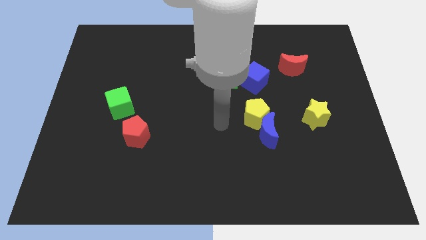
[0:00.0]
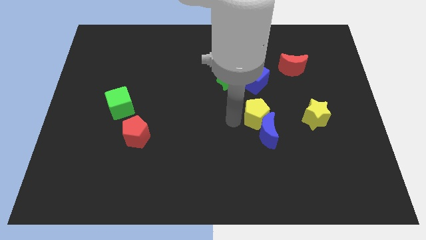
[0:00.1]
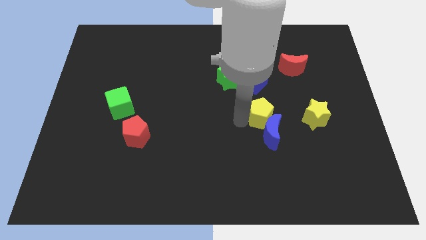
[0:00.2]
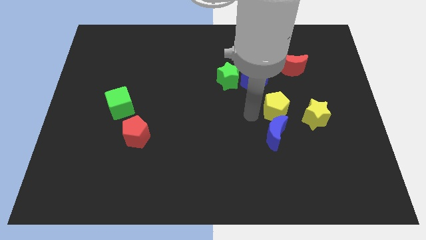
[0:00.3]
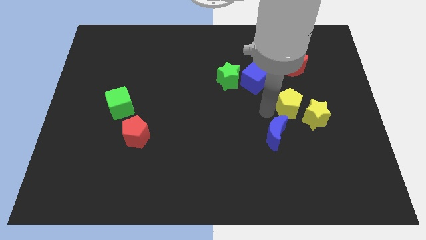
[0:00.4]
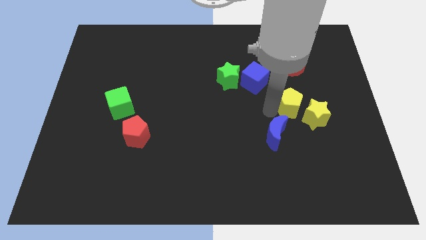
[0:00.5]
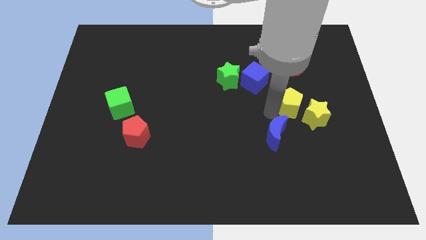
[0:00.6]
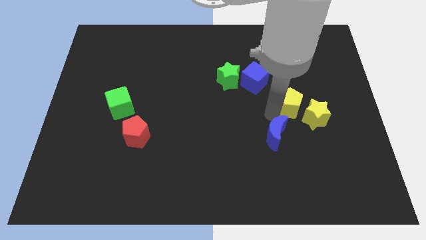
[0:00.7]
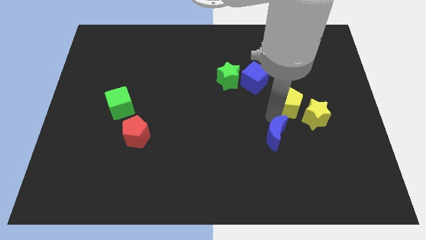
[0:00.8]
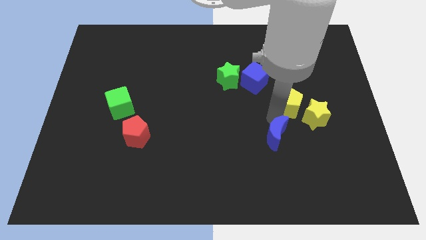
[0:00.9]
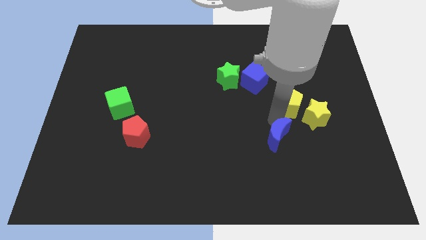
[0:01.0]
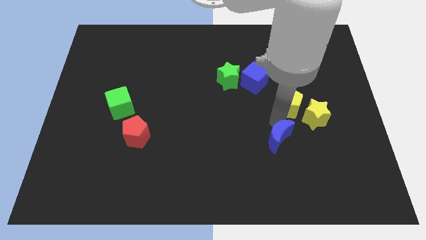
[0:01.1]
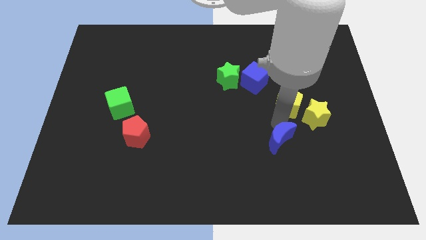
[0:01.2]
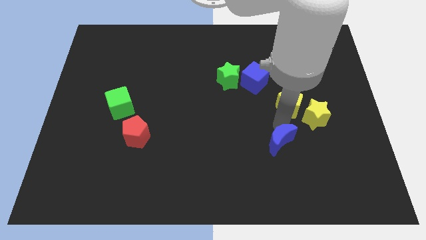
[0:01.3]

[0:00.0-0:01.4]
move the blue moon away from the yellow pentagon

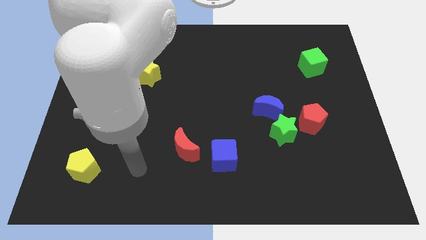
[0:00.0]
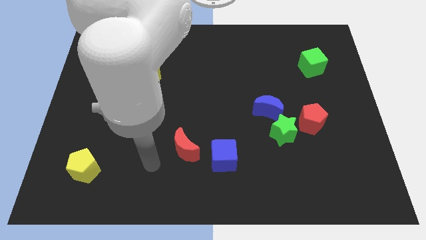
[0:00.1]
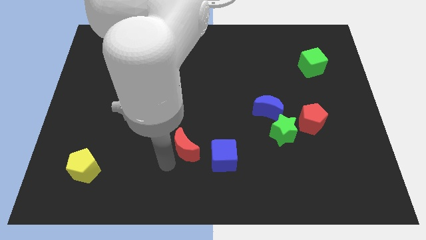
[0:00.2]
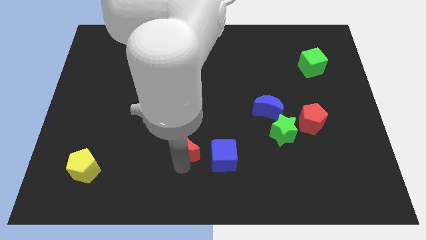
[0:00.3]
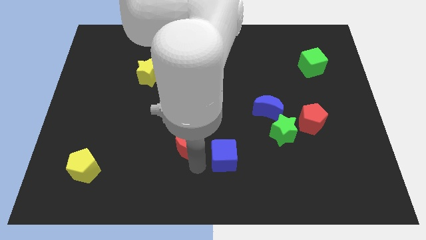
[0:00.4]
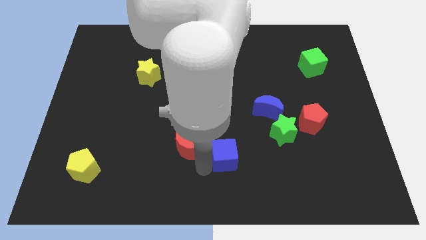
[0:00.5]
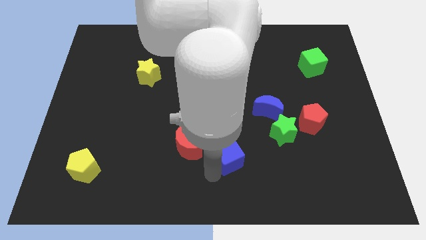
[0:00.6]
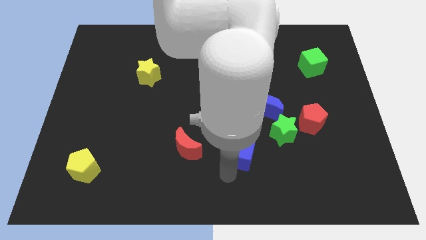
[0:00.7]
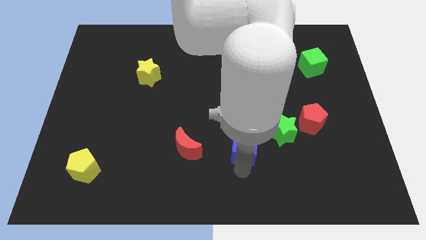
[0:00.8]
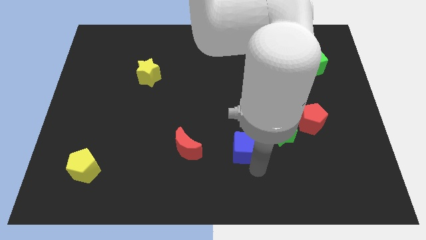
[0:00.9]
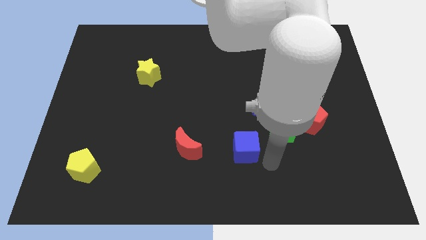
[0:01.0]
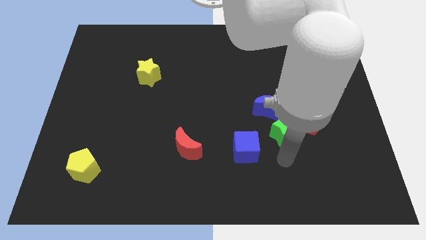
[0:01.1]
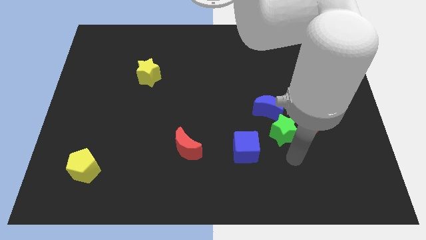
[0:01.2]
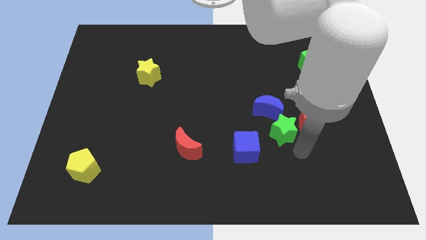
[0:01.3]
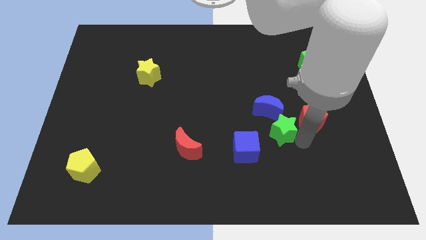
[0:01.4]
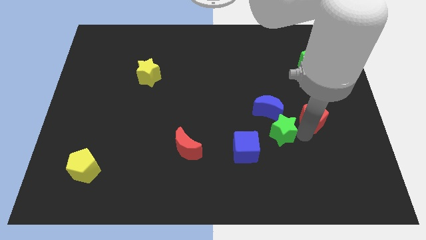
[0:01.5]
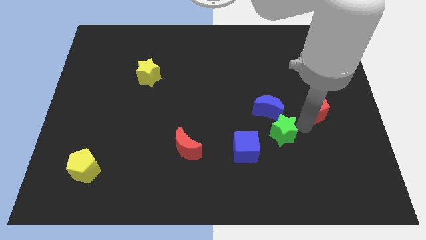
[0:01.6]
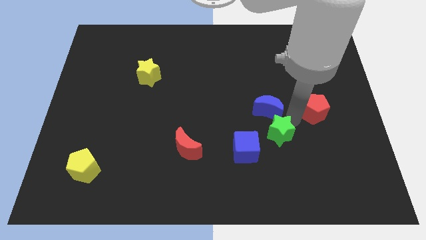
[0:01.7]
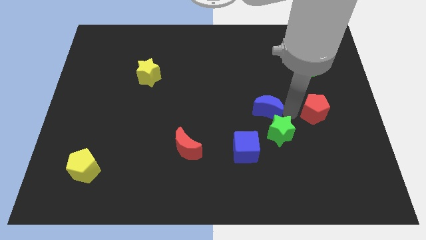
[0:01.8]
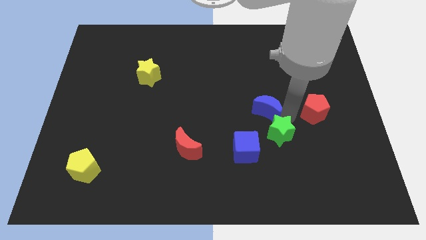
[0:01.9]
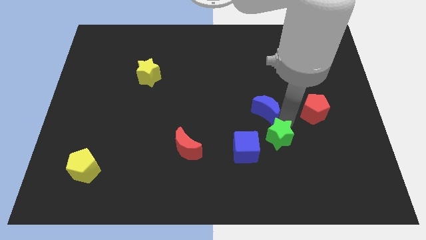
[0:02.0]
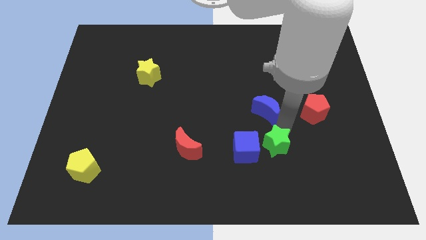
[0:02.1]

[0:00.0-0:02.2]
pull the green star apart from the blue moon and red pentagon

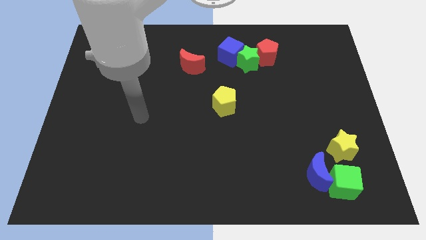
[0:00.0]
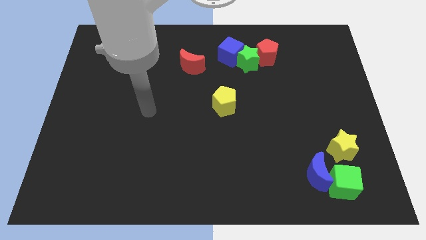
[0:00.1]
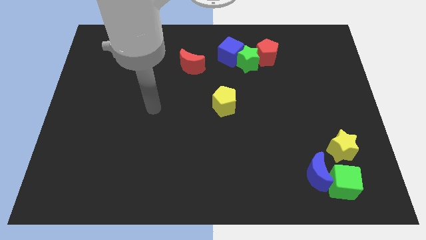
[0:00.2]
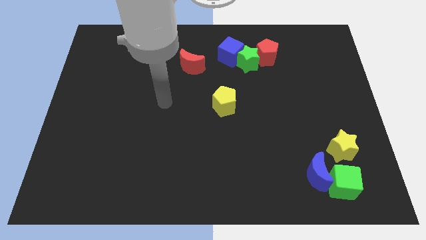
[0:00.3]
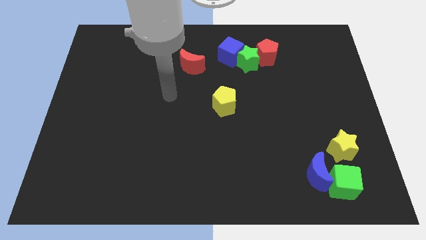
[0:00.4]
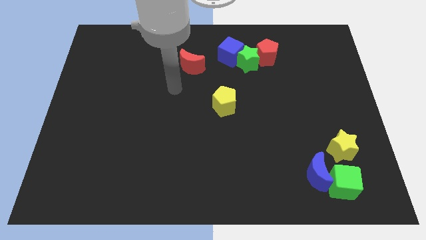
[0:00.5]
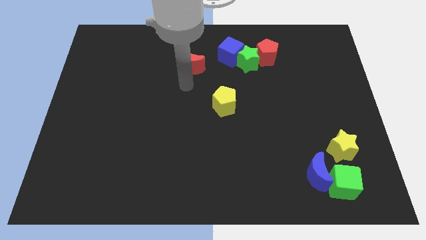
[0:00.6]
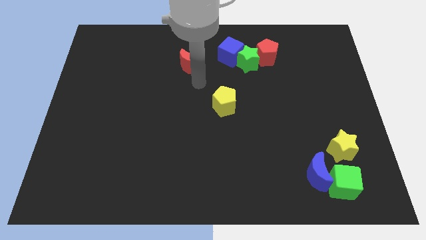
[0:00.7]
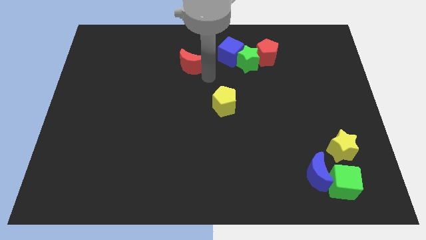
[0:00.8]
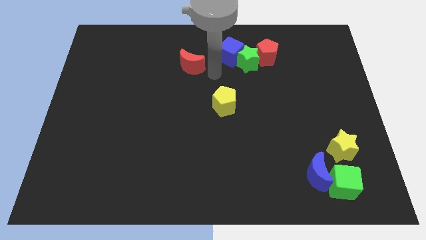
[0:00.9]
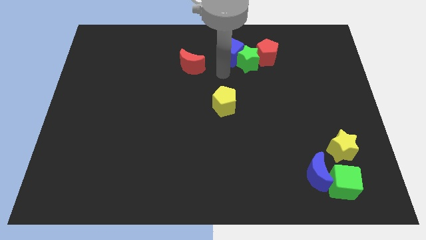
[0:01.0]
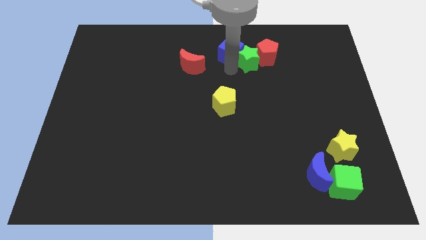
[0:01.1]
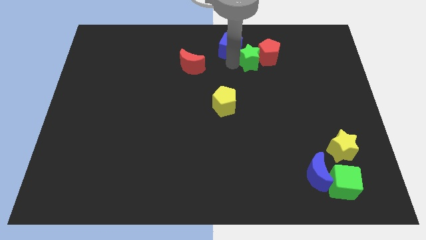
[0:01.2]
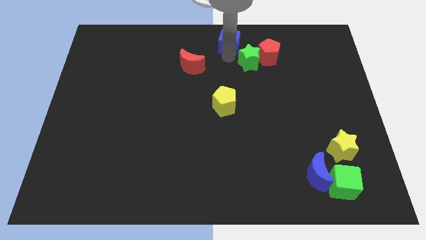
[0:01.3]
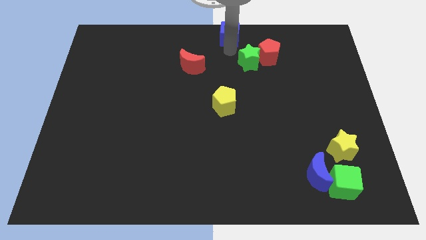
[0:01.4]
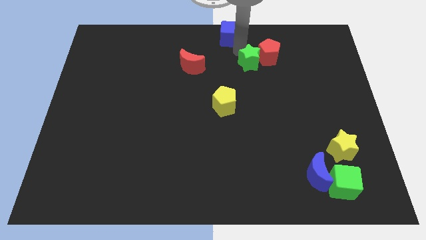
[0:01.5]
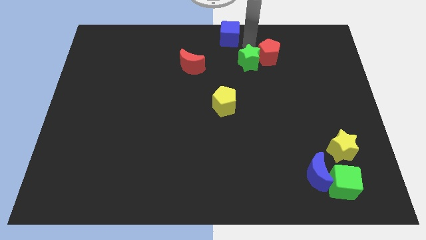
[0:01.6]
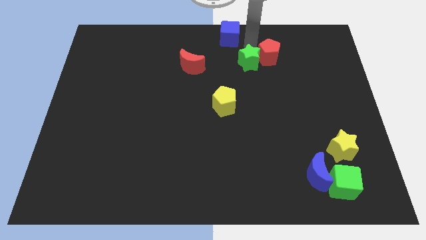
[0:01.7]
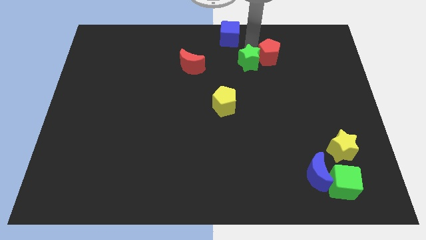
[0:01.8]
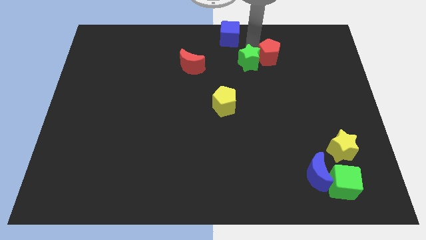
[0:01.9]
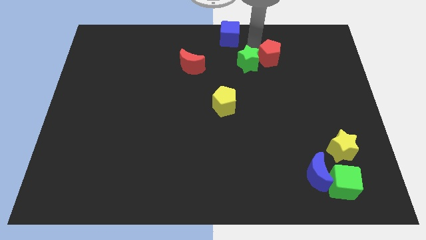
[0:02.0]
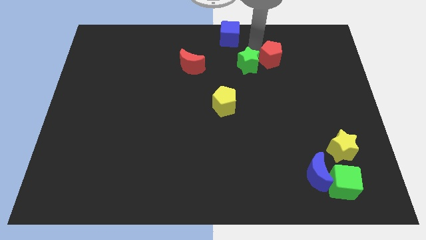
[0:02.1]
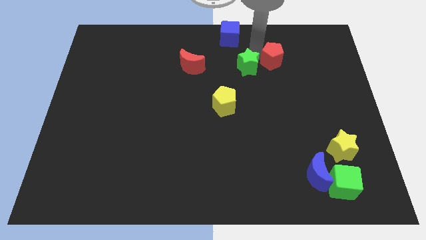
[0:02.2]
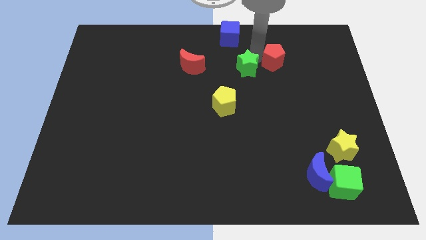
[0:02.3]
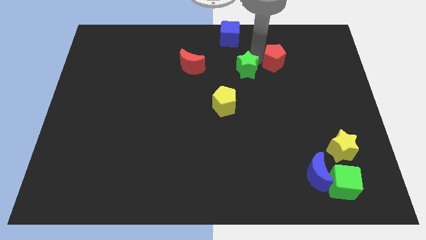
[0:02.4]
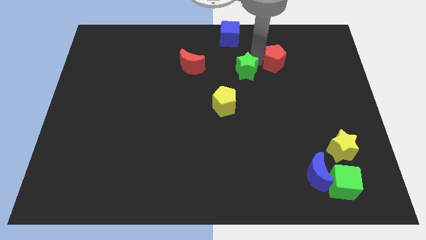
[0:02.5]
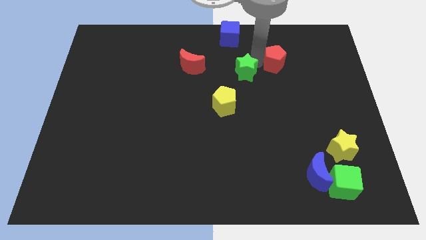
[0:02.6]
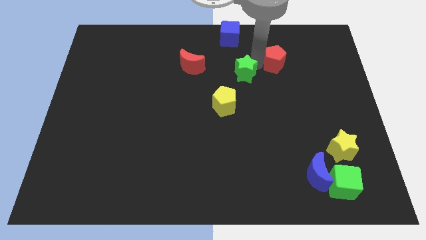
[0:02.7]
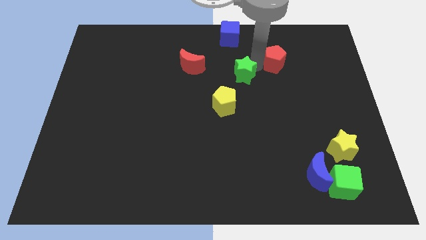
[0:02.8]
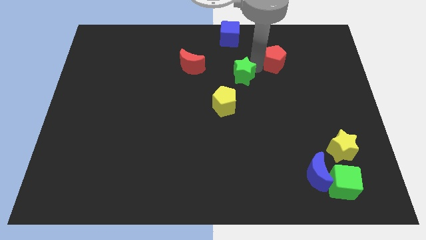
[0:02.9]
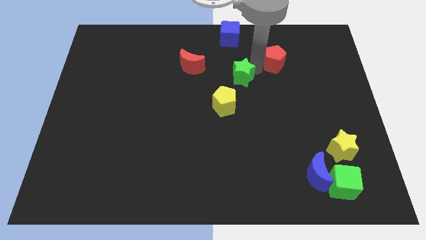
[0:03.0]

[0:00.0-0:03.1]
move the green star away from the red pentagon and blue cube

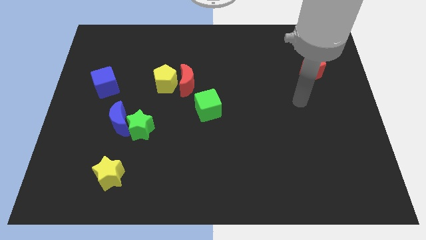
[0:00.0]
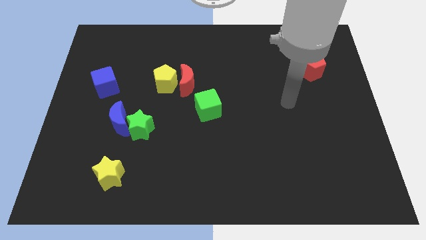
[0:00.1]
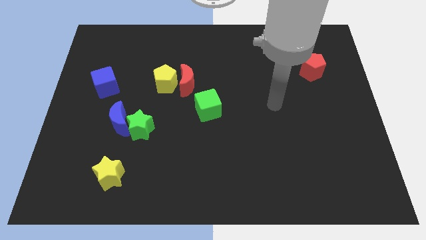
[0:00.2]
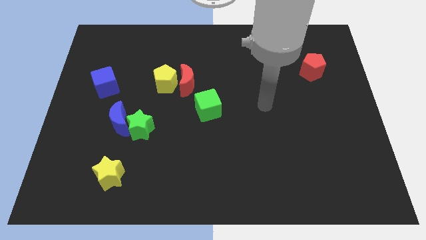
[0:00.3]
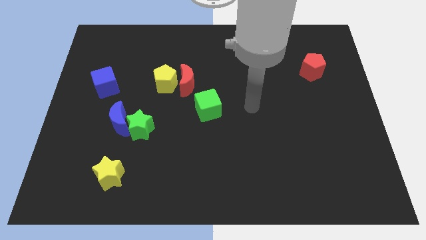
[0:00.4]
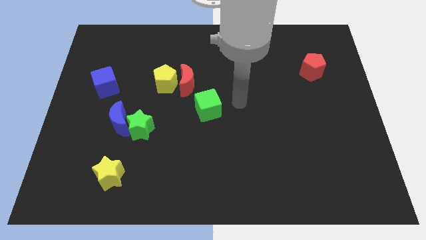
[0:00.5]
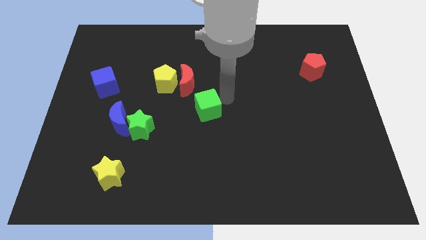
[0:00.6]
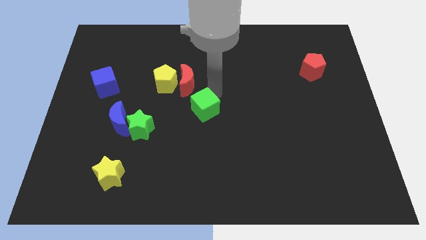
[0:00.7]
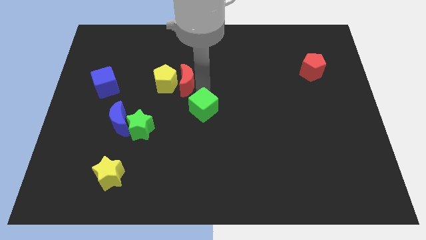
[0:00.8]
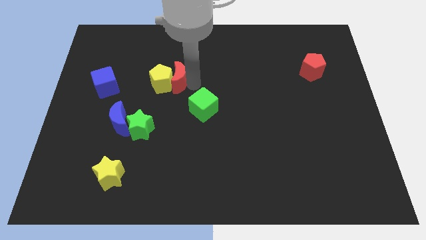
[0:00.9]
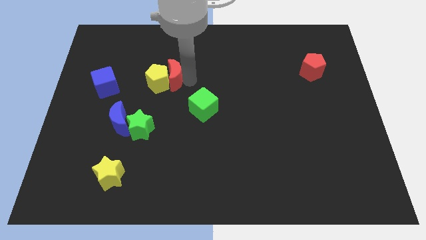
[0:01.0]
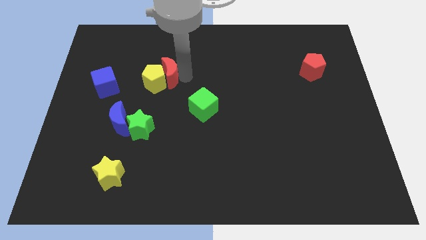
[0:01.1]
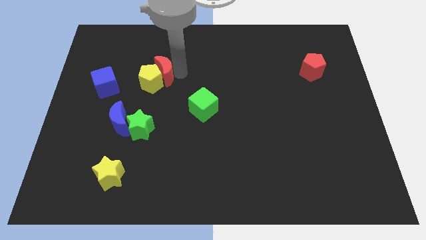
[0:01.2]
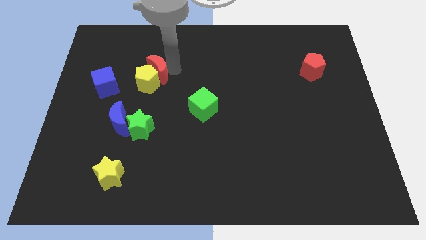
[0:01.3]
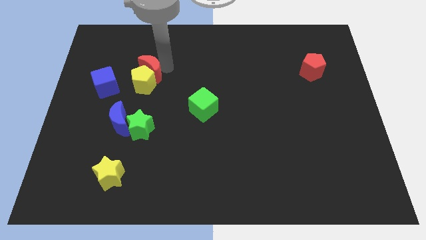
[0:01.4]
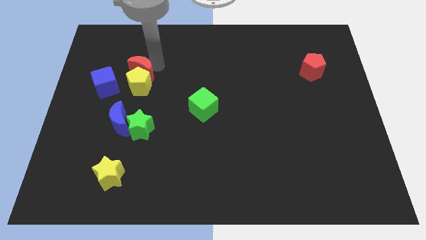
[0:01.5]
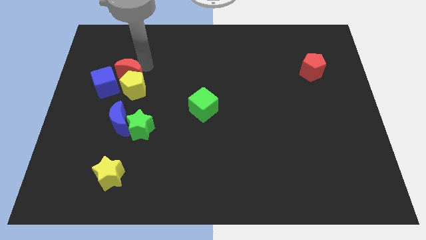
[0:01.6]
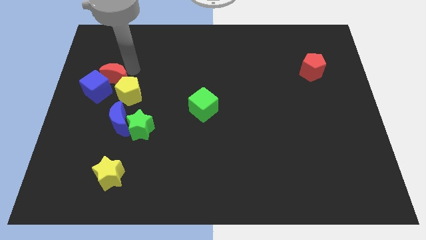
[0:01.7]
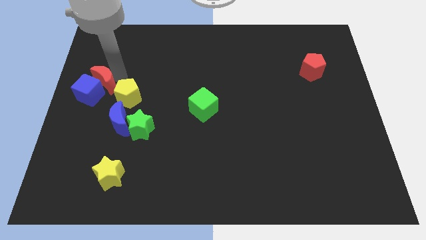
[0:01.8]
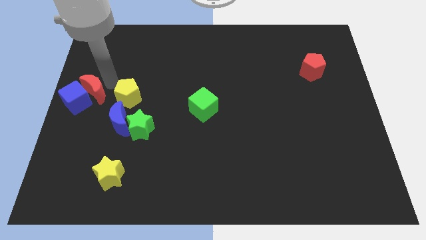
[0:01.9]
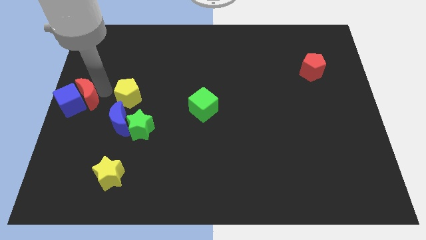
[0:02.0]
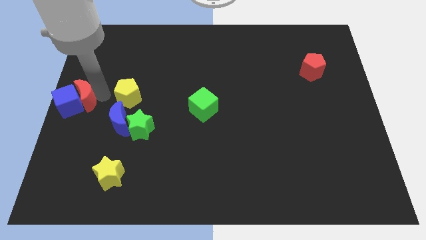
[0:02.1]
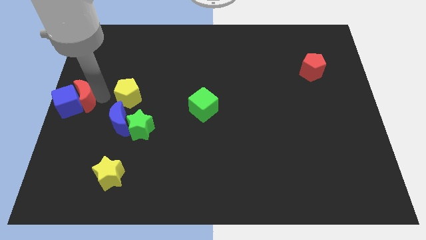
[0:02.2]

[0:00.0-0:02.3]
separate the yellow pentagon from the red moon

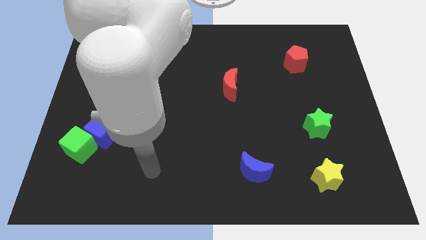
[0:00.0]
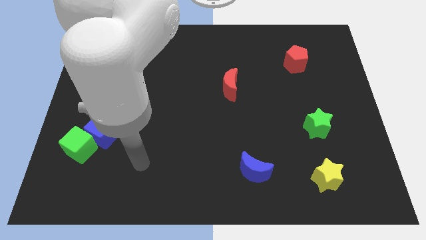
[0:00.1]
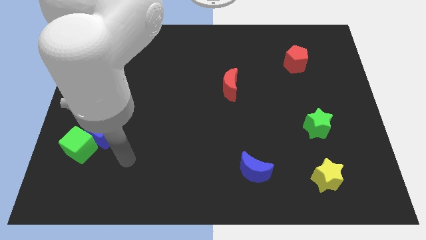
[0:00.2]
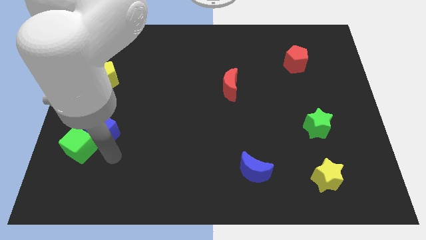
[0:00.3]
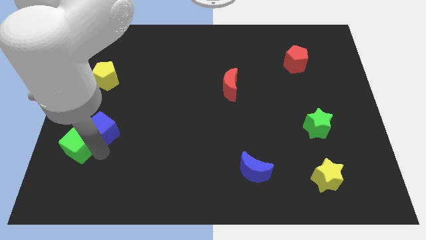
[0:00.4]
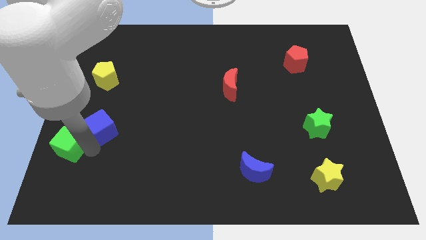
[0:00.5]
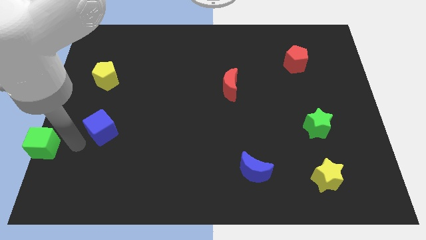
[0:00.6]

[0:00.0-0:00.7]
separate the blue cube from the green cube
